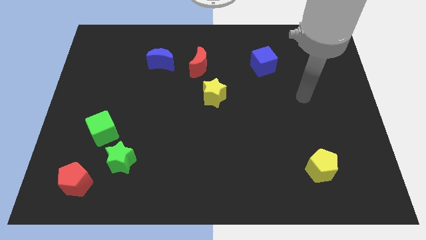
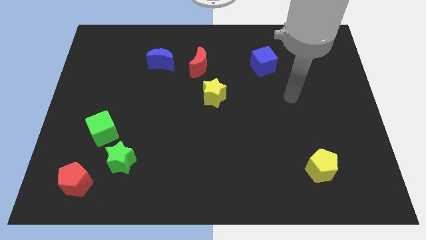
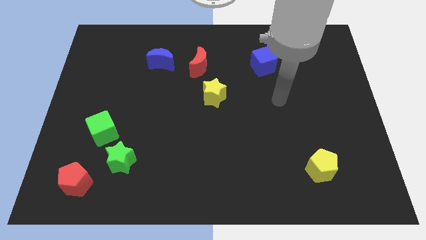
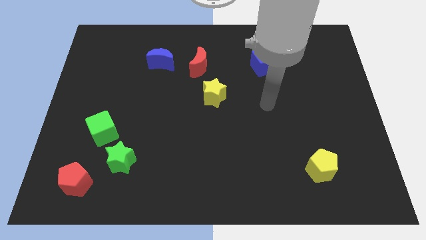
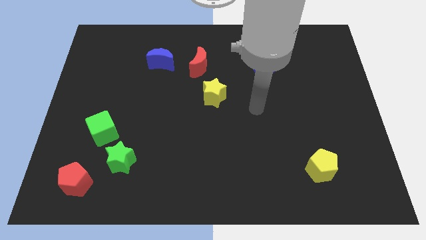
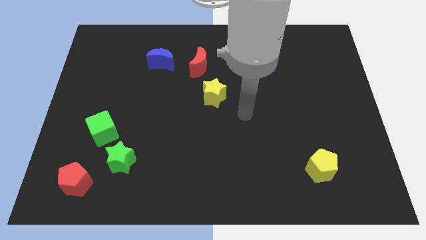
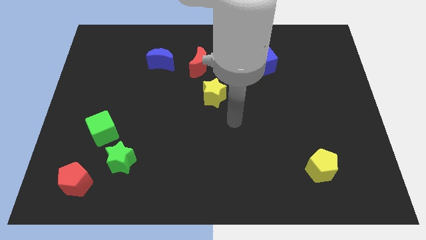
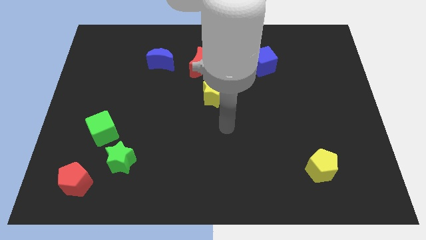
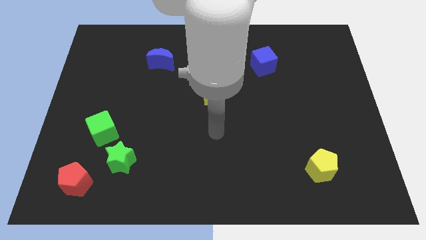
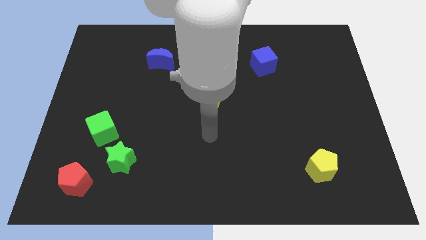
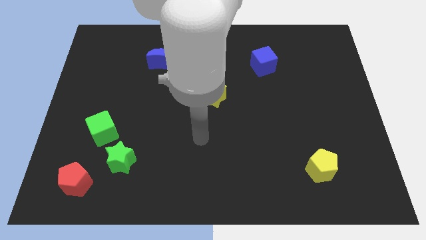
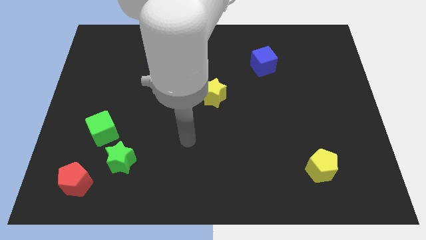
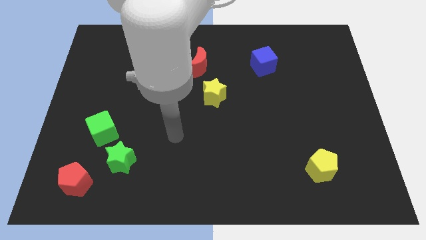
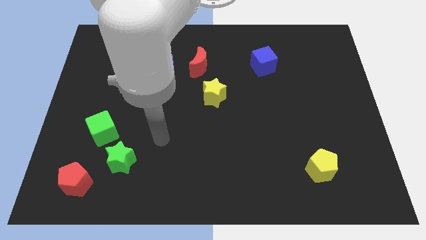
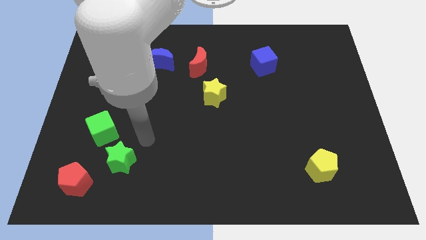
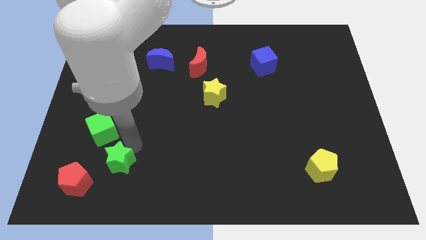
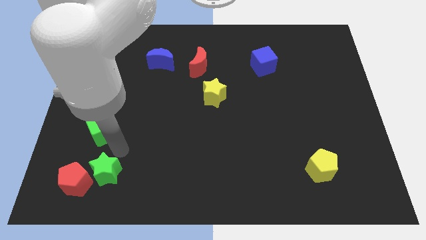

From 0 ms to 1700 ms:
move the green cube away from the green star

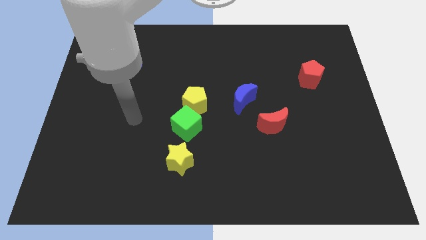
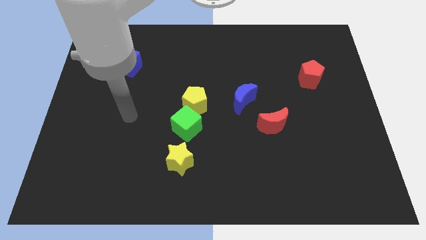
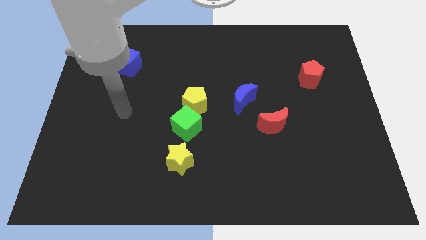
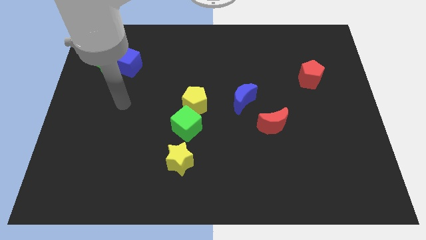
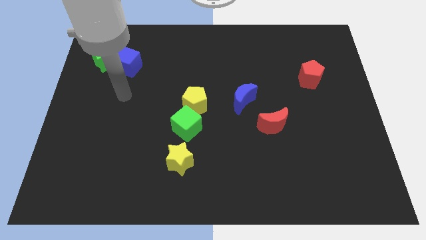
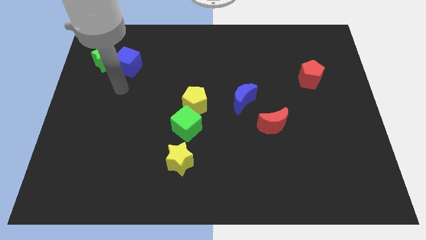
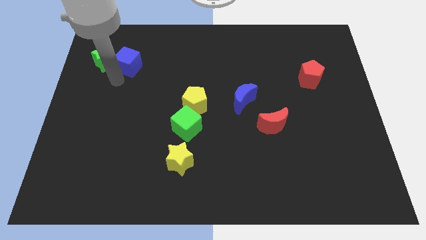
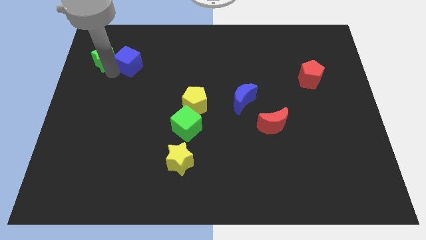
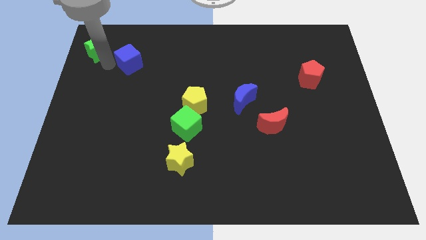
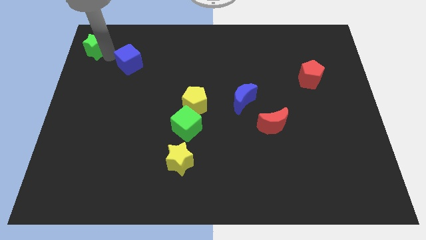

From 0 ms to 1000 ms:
separate the blue cube from the green star

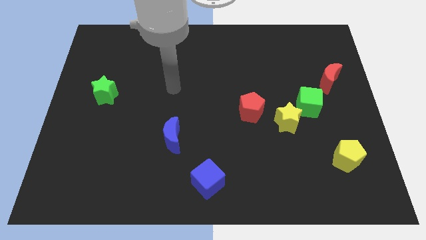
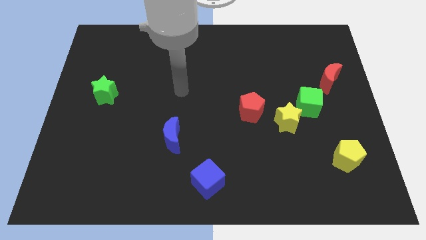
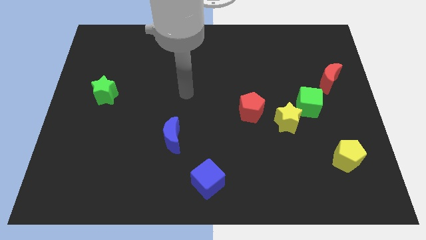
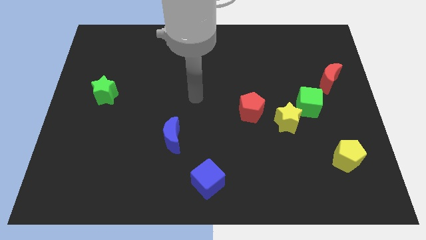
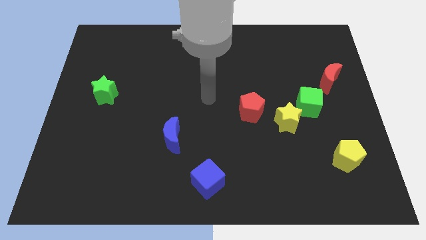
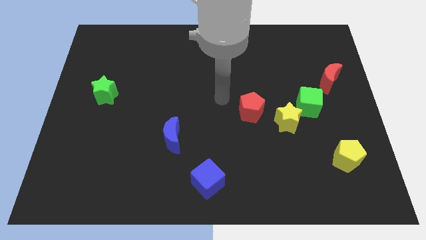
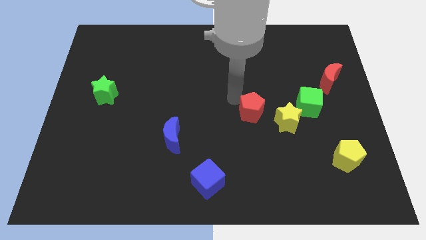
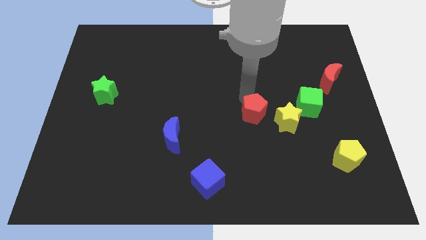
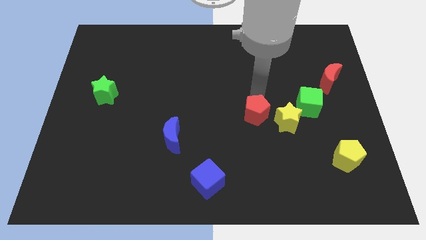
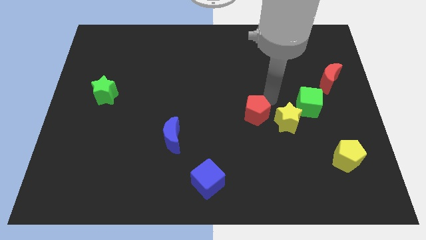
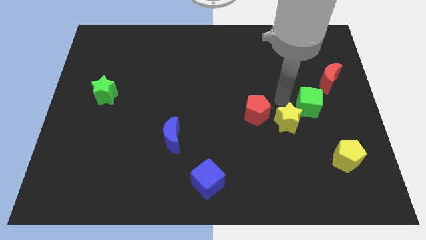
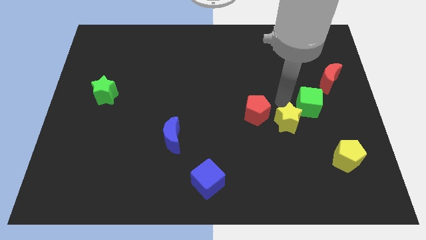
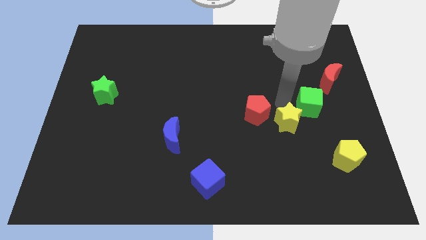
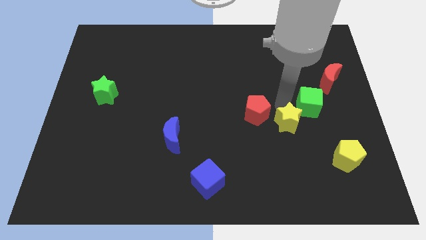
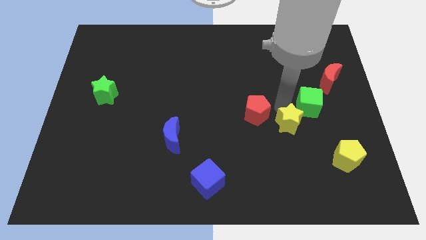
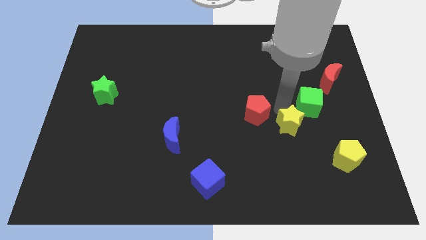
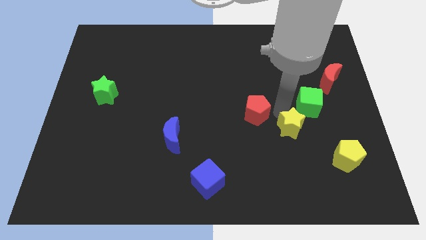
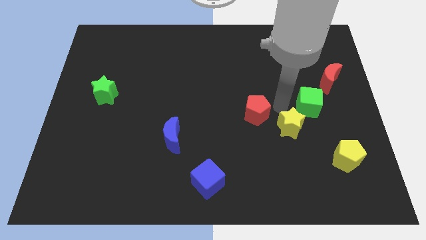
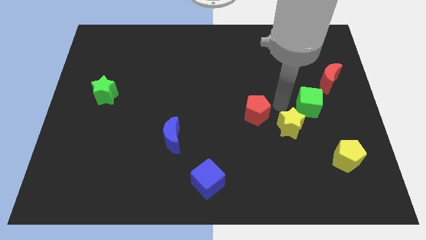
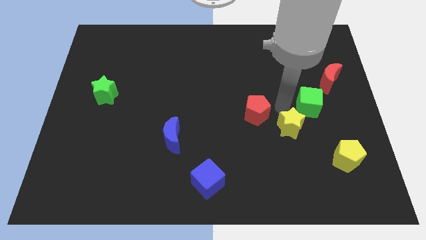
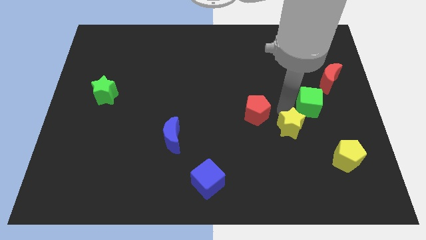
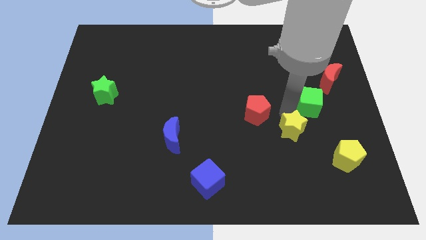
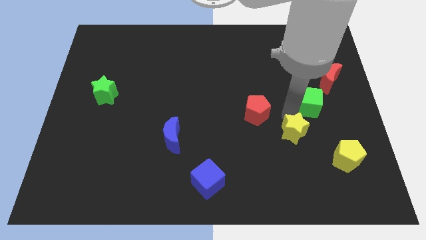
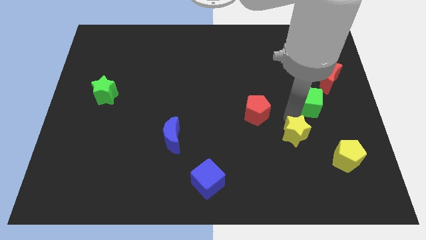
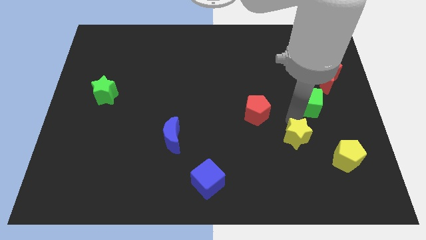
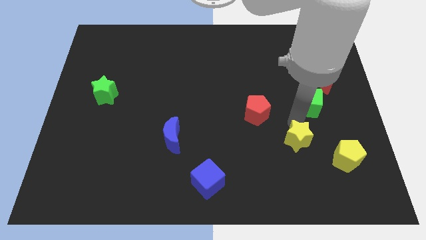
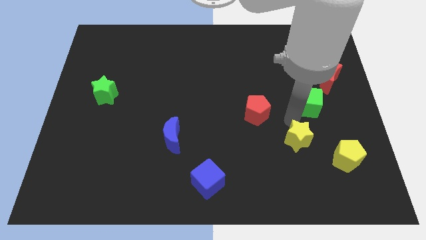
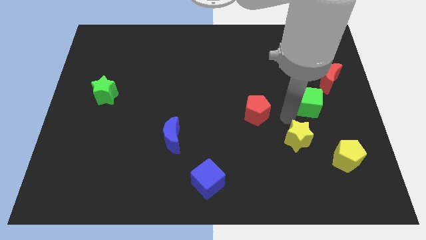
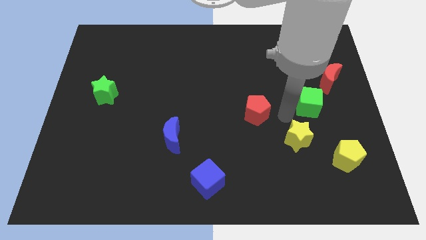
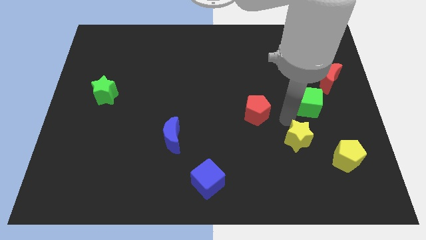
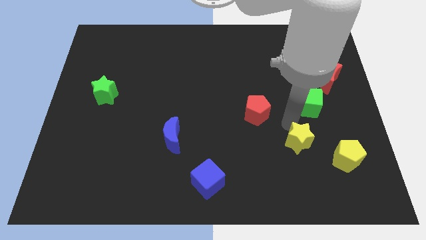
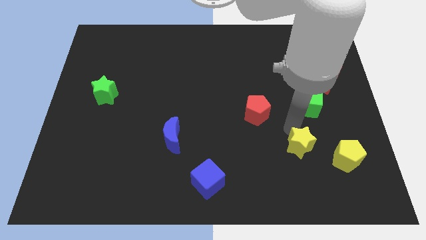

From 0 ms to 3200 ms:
pull the yellow star apart from the green cube and red pentagon

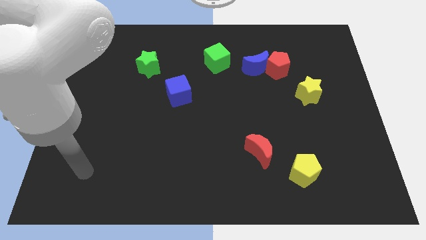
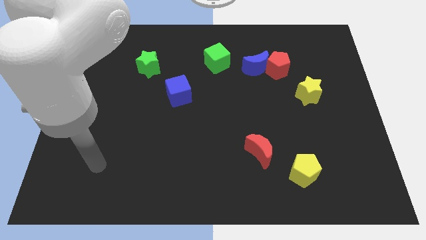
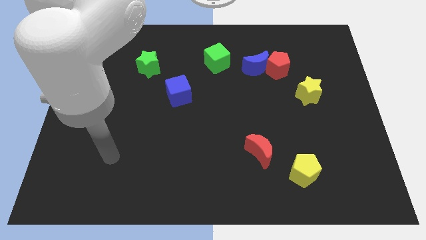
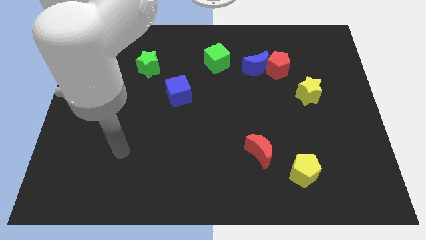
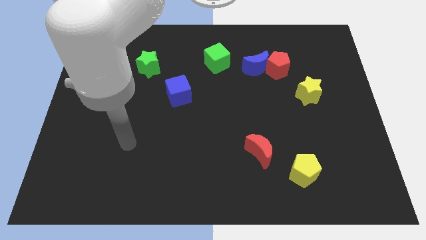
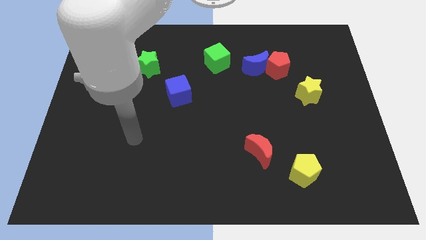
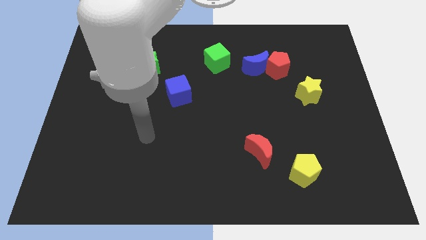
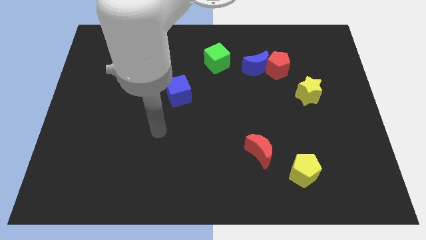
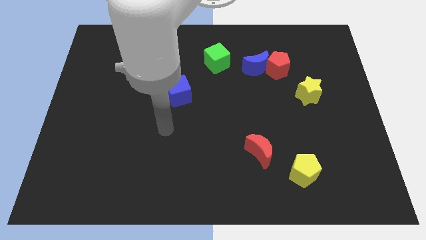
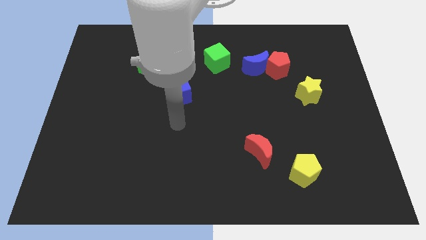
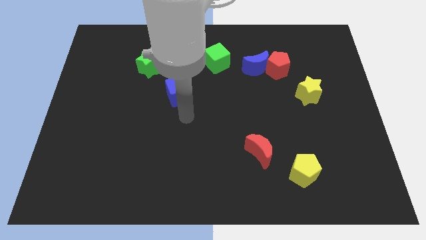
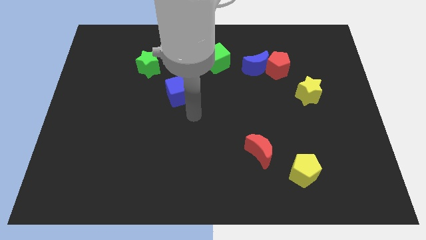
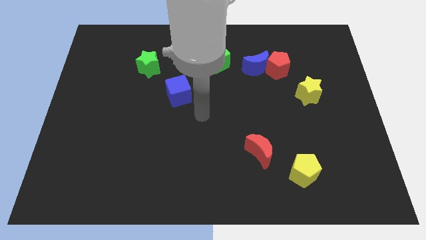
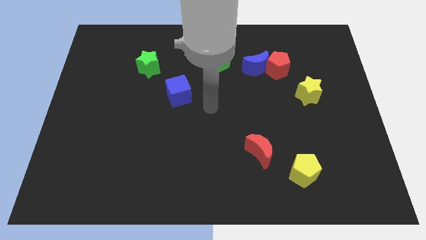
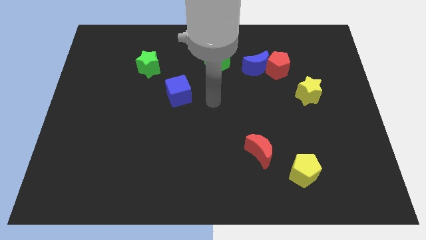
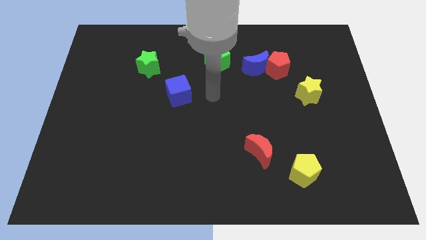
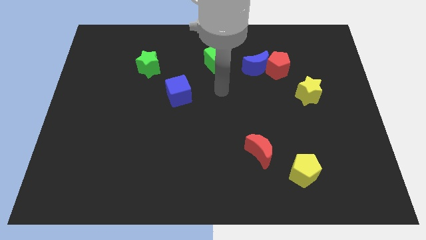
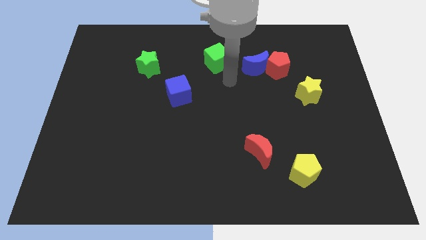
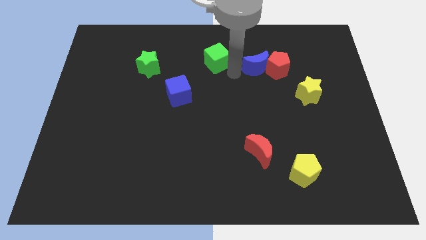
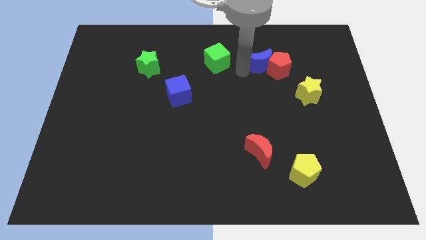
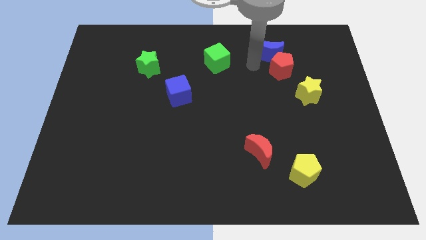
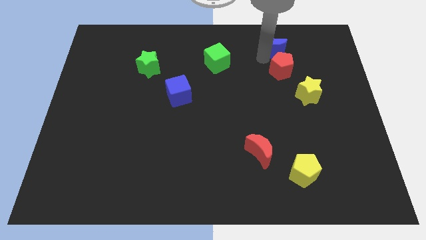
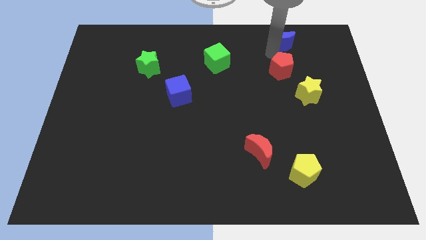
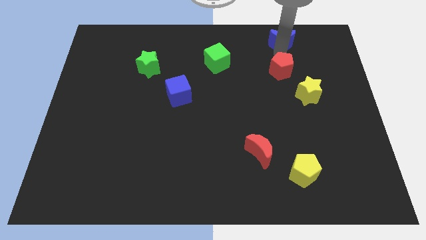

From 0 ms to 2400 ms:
pull the red pentagon apart from the blue moon

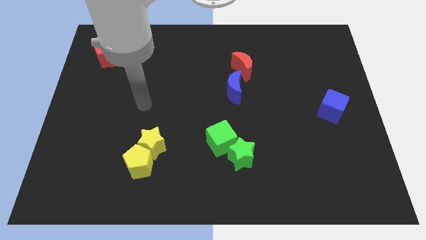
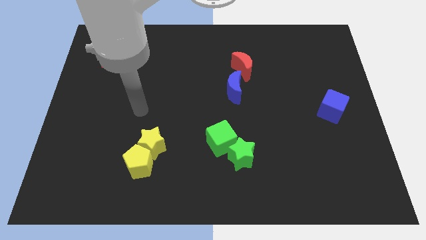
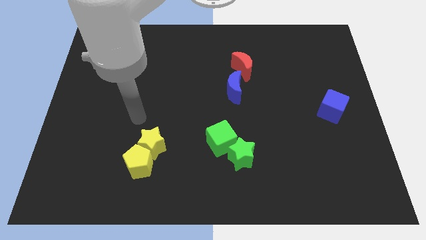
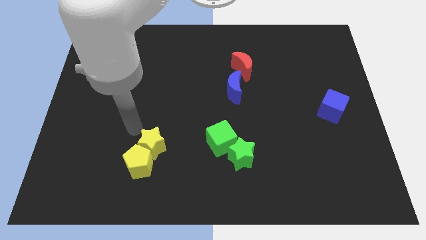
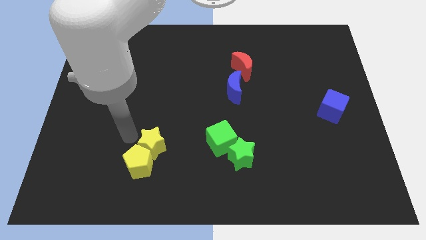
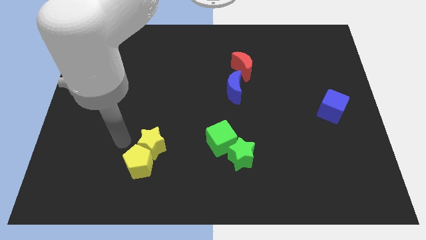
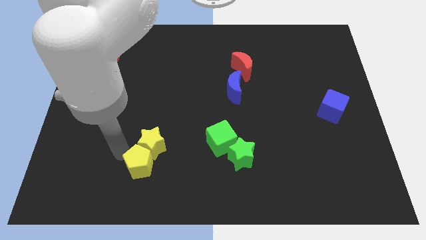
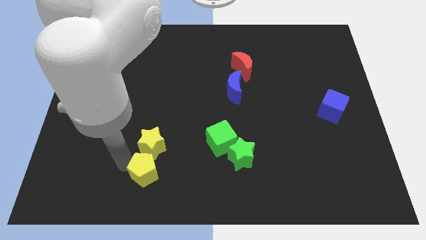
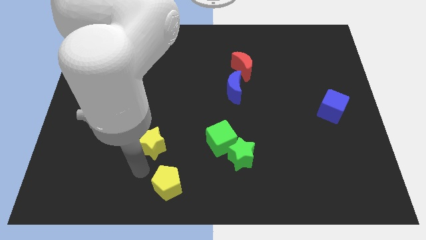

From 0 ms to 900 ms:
separate the yellow star from the yellow pentagon
